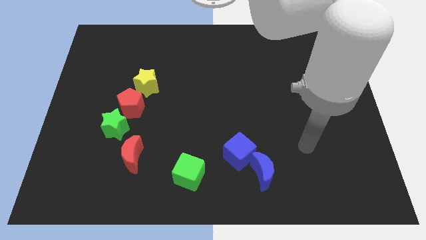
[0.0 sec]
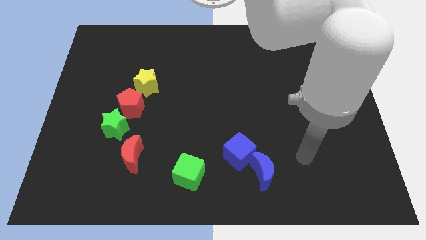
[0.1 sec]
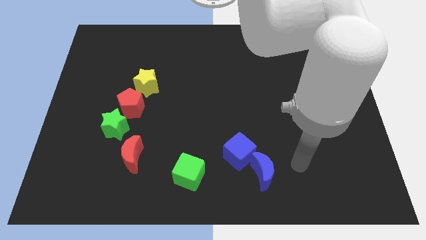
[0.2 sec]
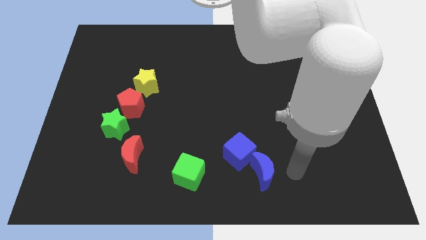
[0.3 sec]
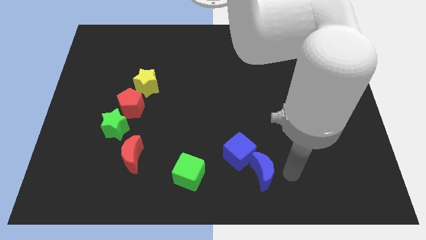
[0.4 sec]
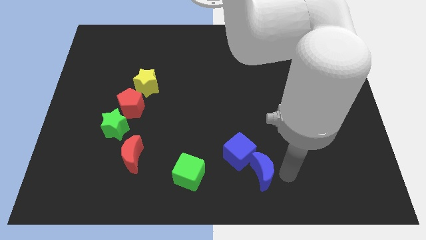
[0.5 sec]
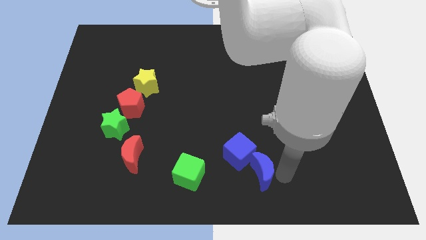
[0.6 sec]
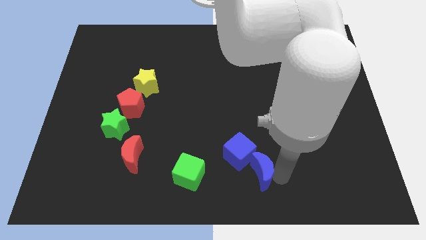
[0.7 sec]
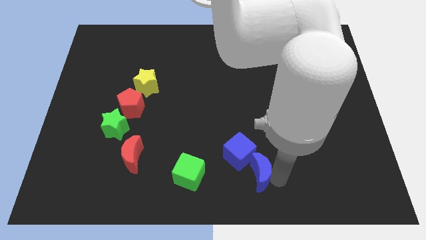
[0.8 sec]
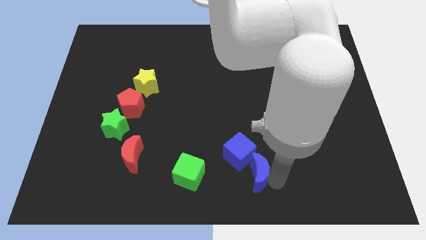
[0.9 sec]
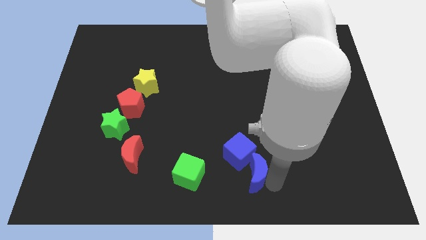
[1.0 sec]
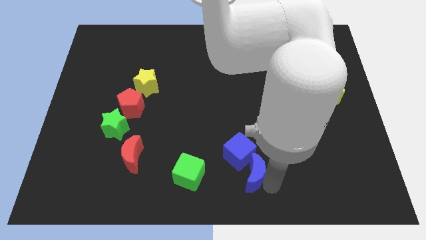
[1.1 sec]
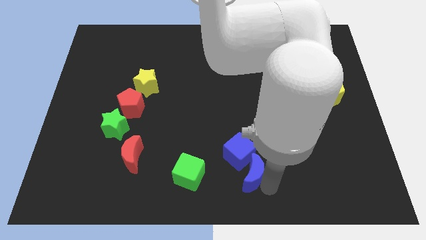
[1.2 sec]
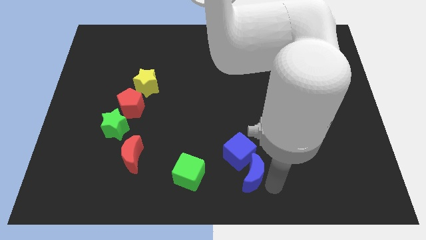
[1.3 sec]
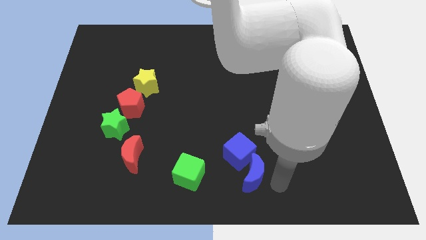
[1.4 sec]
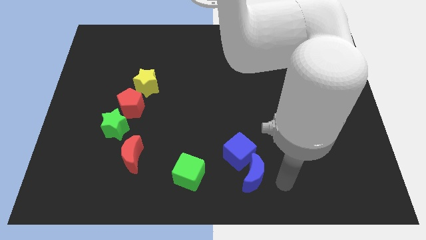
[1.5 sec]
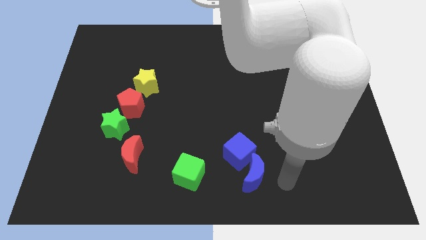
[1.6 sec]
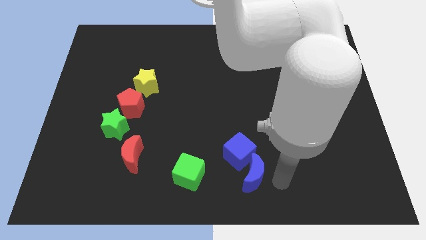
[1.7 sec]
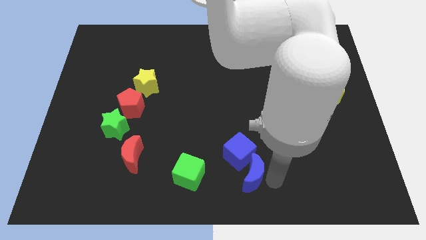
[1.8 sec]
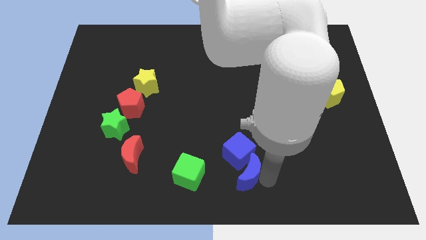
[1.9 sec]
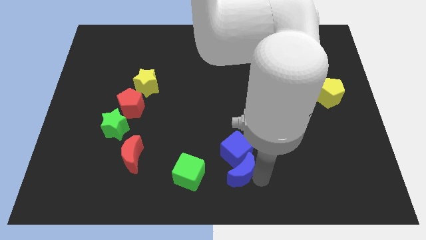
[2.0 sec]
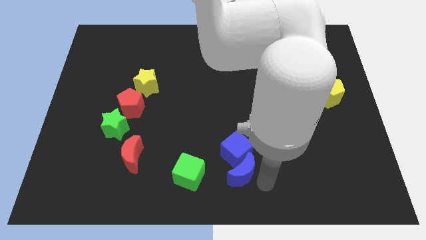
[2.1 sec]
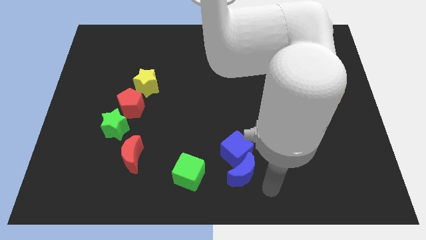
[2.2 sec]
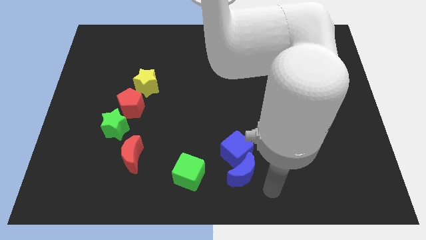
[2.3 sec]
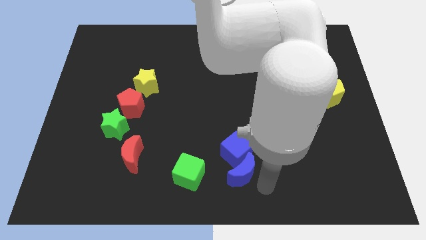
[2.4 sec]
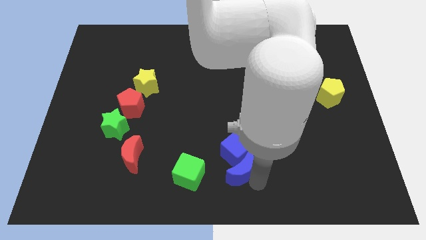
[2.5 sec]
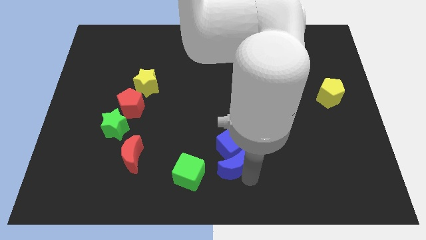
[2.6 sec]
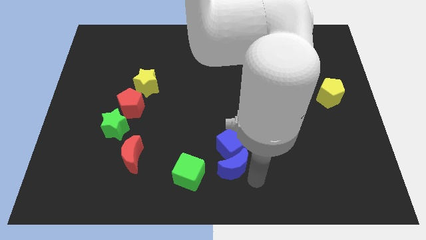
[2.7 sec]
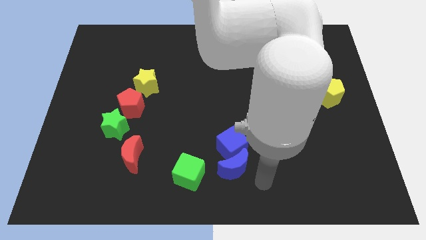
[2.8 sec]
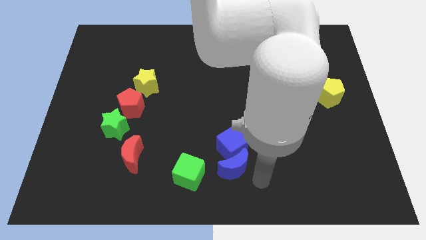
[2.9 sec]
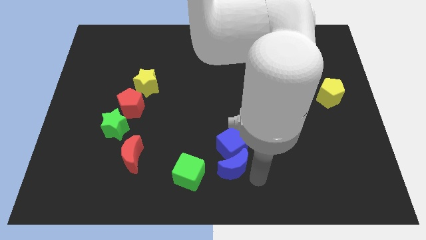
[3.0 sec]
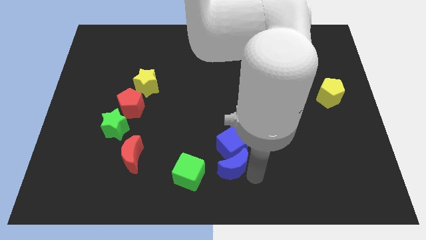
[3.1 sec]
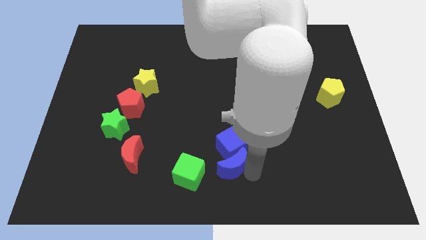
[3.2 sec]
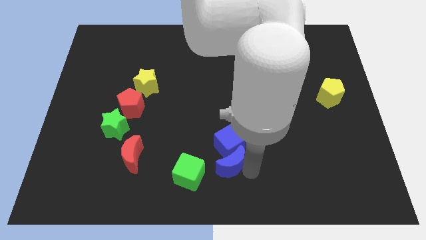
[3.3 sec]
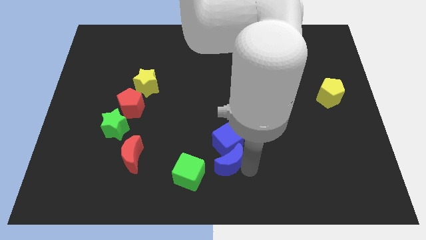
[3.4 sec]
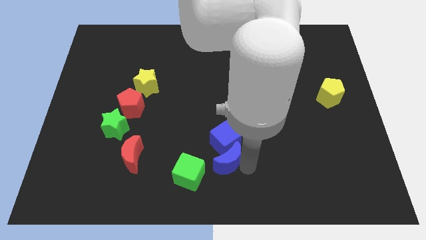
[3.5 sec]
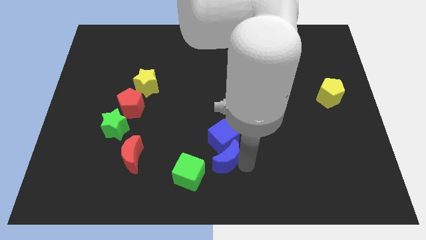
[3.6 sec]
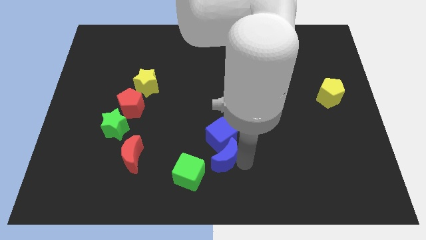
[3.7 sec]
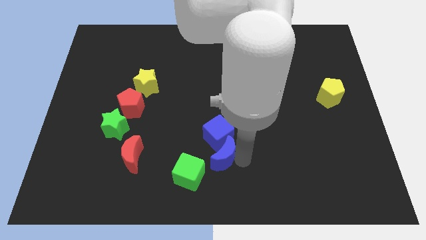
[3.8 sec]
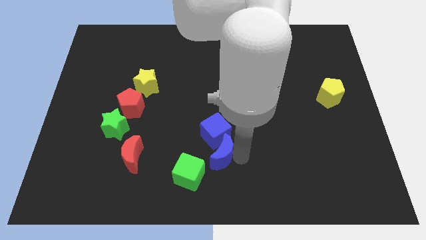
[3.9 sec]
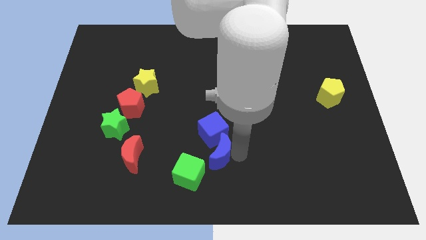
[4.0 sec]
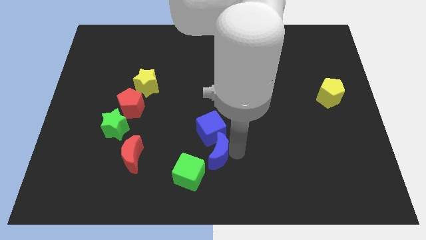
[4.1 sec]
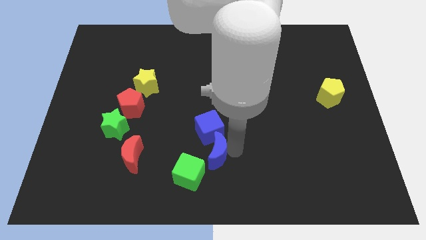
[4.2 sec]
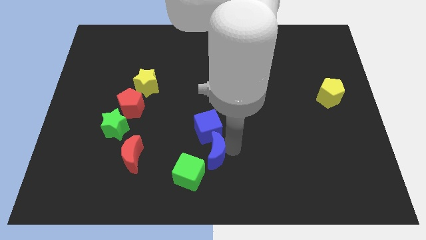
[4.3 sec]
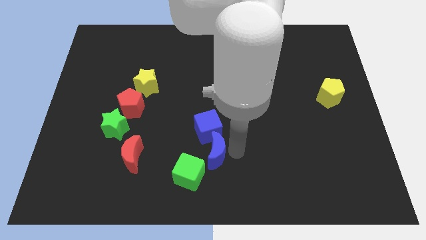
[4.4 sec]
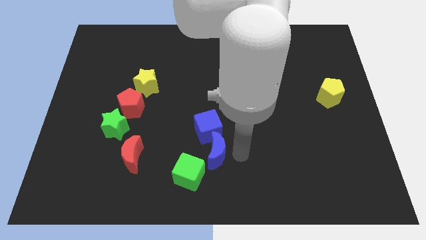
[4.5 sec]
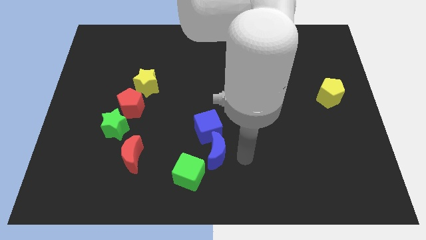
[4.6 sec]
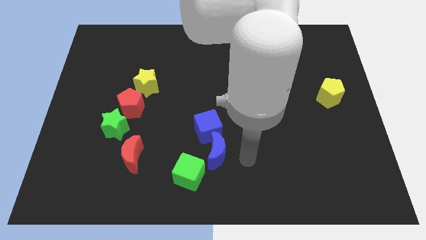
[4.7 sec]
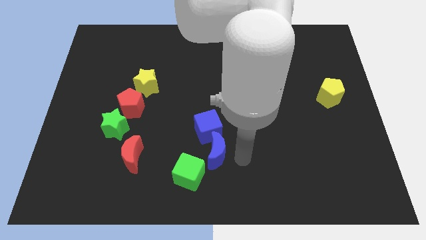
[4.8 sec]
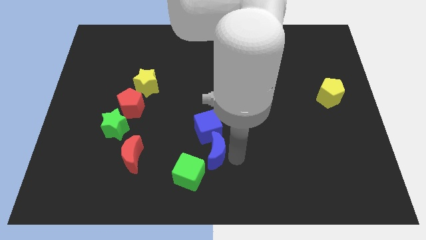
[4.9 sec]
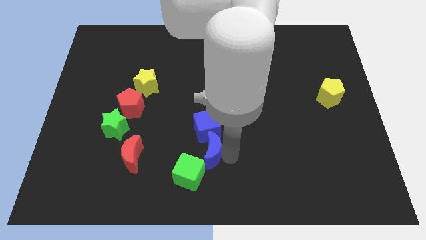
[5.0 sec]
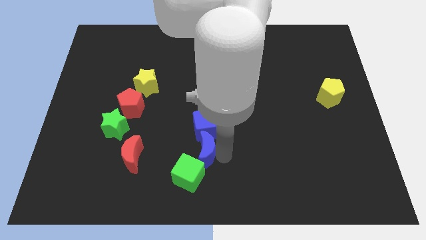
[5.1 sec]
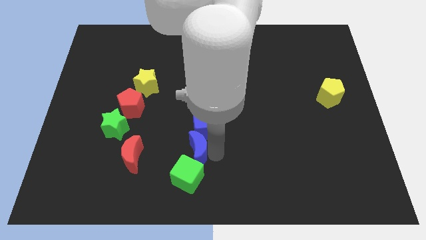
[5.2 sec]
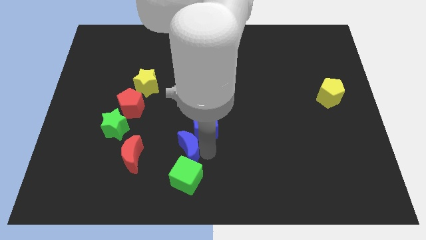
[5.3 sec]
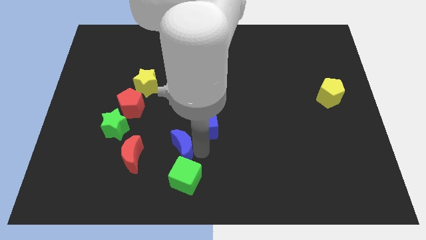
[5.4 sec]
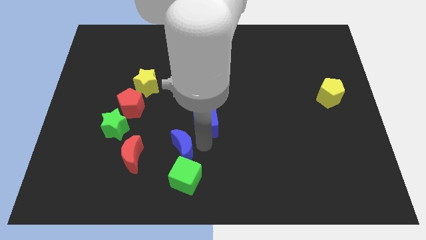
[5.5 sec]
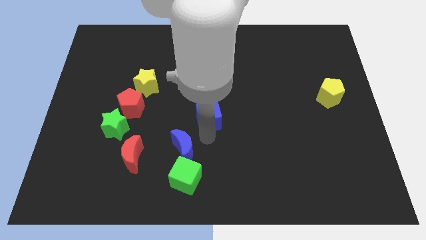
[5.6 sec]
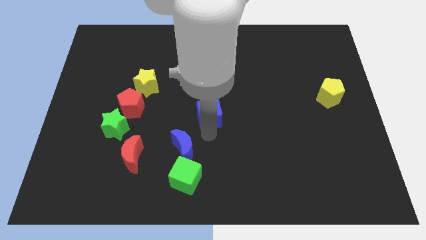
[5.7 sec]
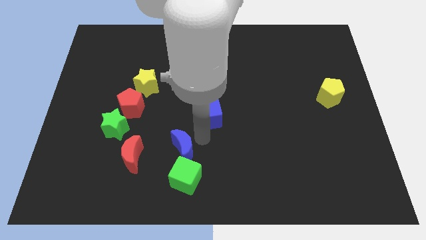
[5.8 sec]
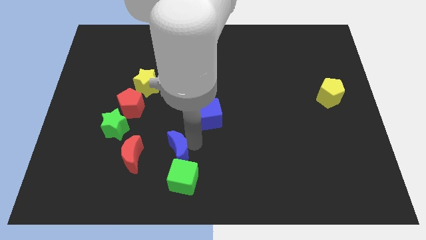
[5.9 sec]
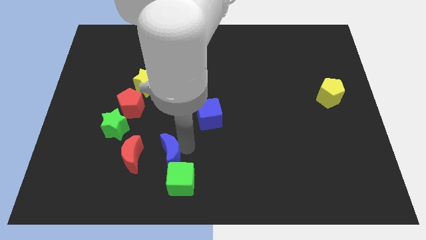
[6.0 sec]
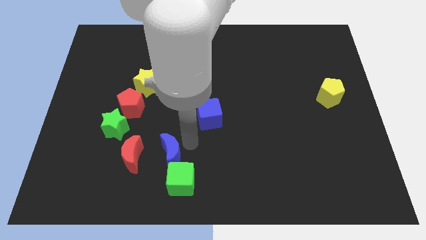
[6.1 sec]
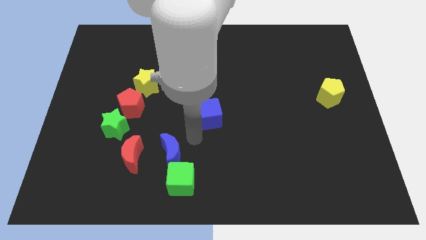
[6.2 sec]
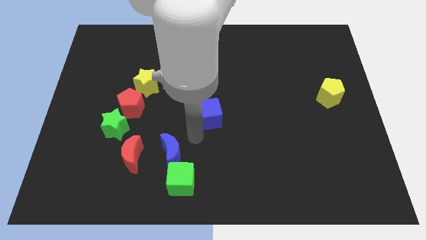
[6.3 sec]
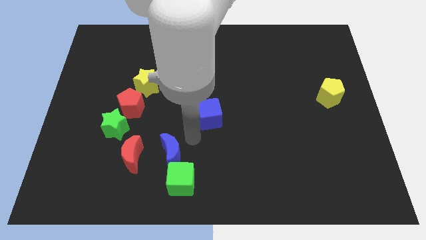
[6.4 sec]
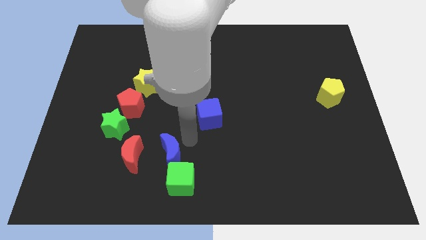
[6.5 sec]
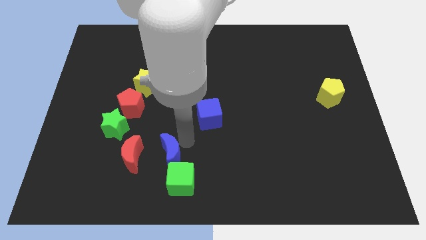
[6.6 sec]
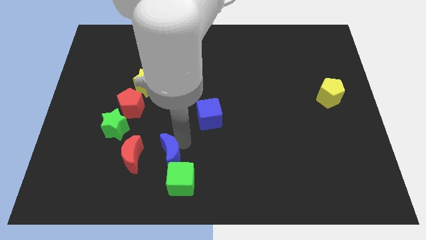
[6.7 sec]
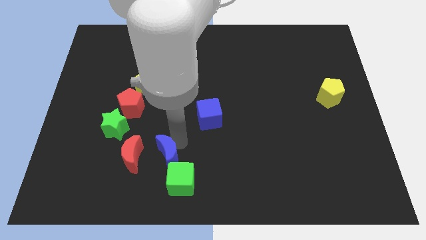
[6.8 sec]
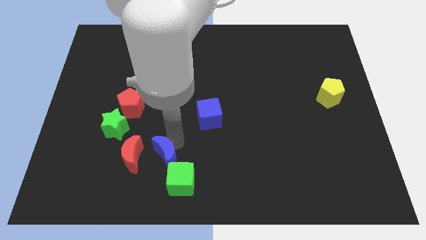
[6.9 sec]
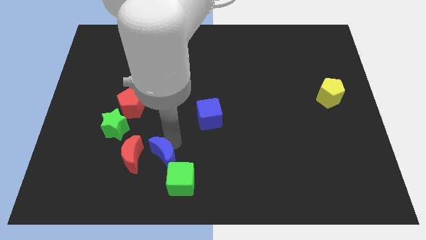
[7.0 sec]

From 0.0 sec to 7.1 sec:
move the blue moon to the left

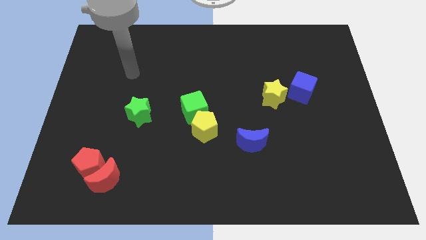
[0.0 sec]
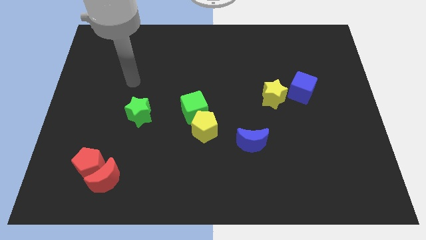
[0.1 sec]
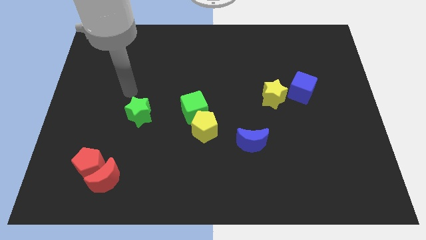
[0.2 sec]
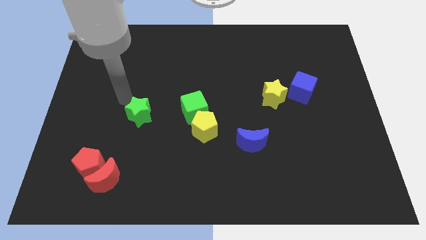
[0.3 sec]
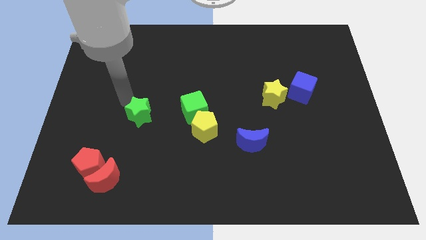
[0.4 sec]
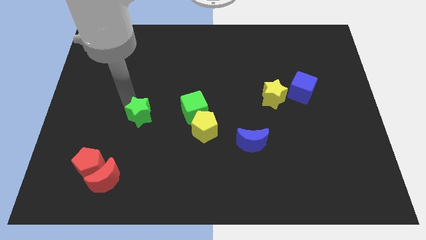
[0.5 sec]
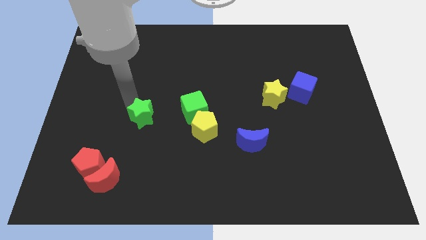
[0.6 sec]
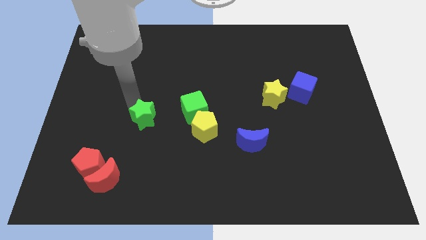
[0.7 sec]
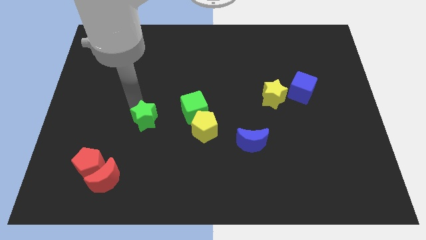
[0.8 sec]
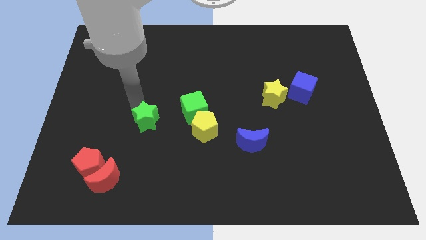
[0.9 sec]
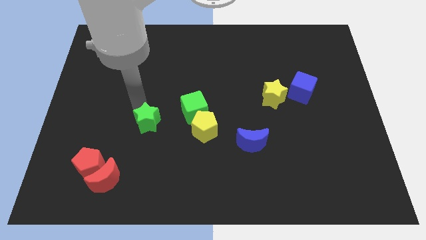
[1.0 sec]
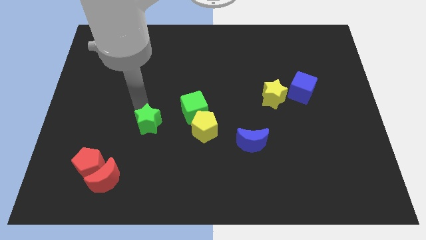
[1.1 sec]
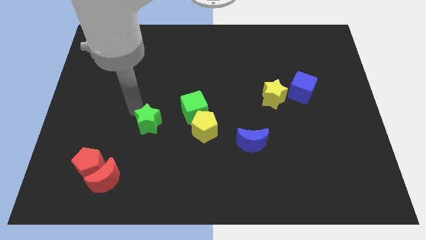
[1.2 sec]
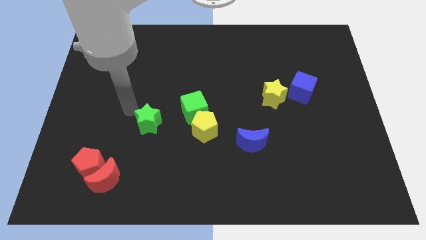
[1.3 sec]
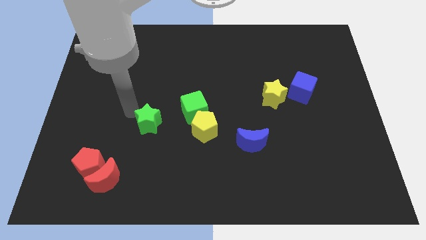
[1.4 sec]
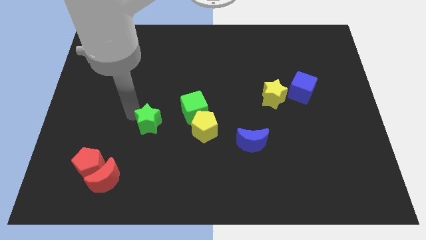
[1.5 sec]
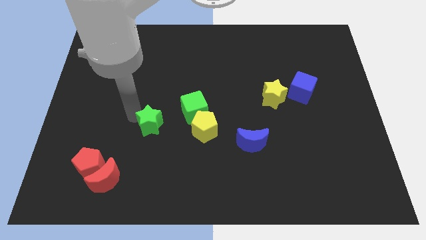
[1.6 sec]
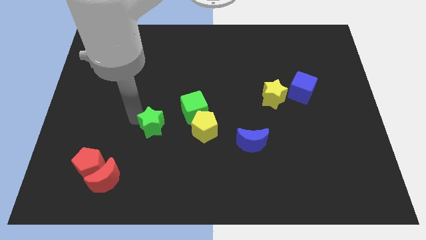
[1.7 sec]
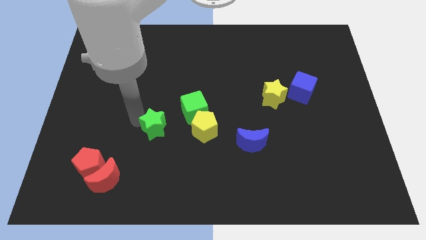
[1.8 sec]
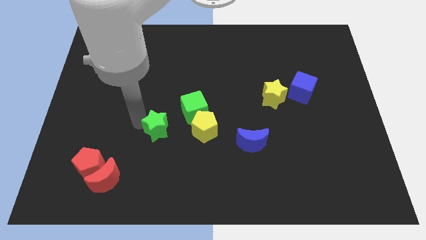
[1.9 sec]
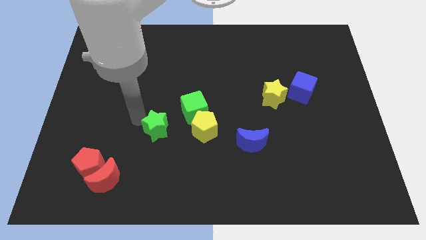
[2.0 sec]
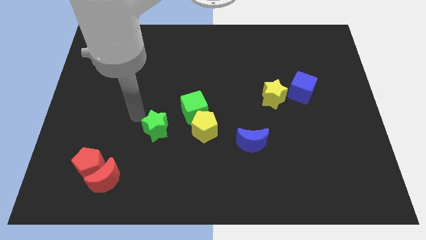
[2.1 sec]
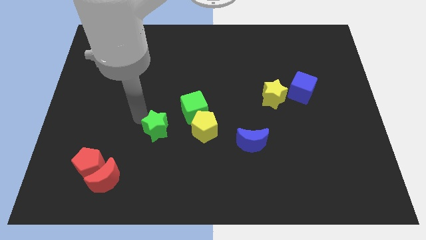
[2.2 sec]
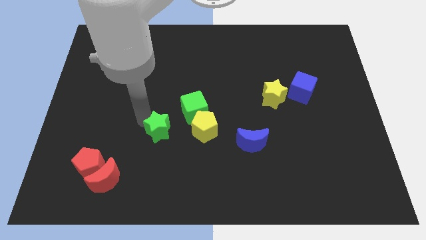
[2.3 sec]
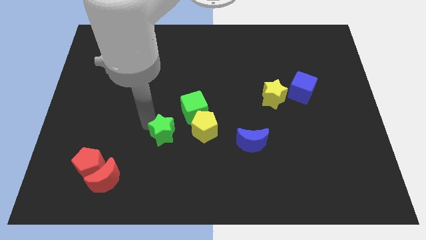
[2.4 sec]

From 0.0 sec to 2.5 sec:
slide the green star down and to the right diagonally somewhat
